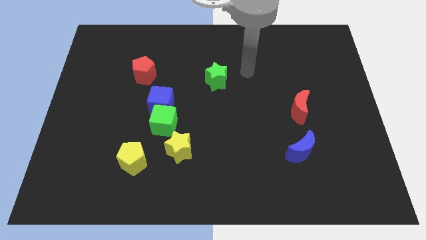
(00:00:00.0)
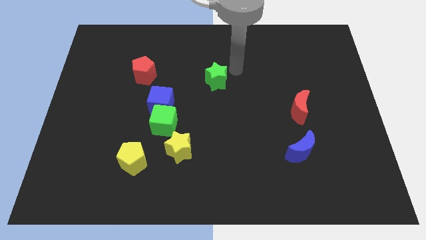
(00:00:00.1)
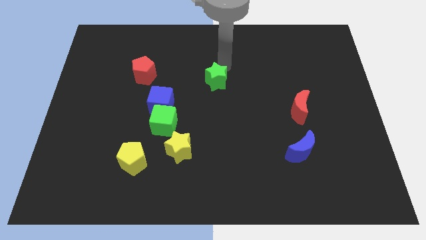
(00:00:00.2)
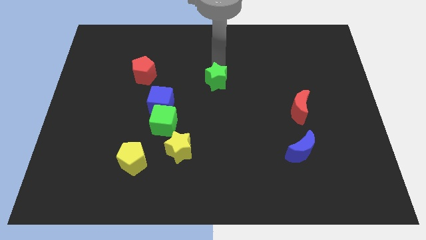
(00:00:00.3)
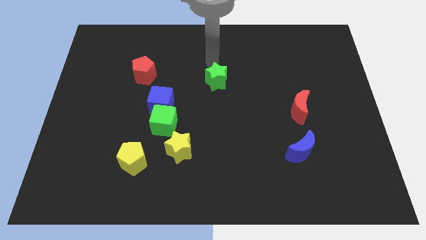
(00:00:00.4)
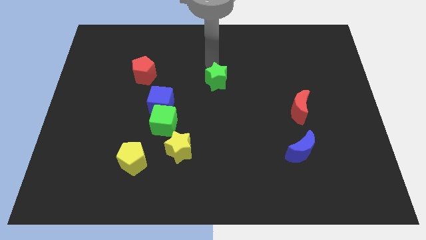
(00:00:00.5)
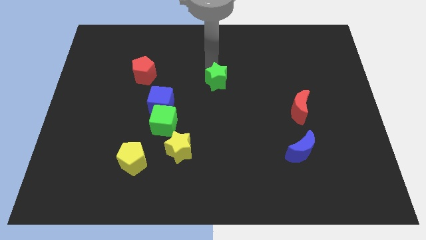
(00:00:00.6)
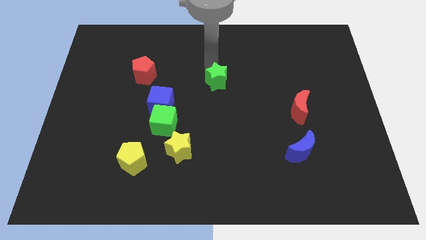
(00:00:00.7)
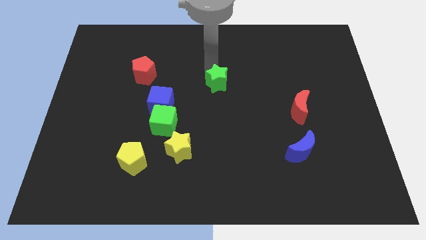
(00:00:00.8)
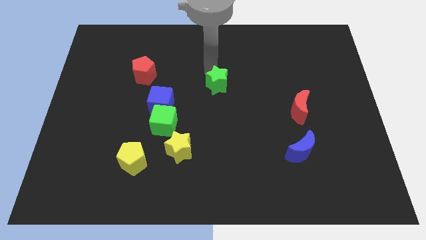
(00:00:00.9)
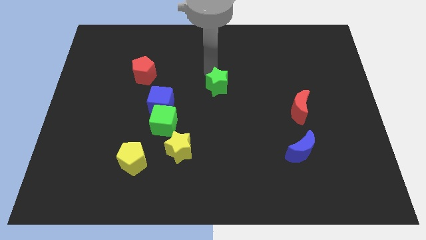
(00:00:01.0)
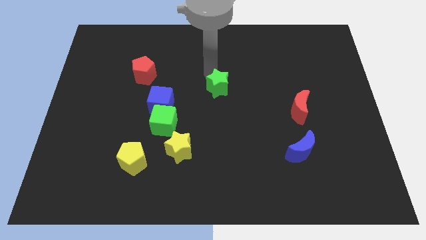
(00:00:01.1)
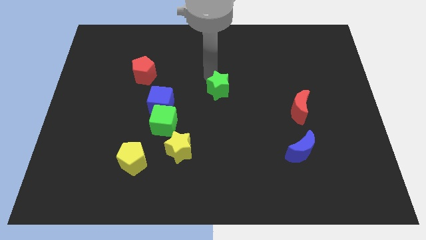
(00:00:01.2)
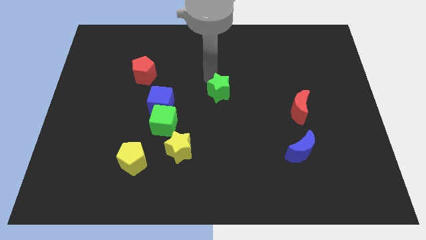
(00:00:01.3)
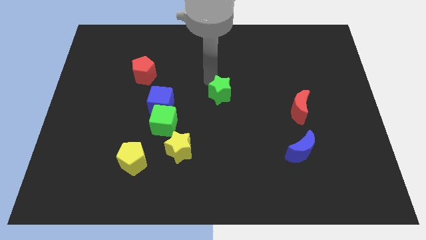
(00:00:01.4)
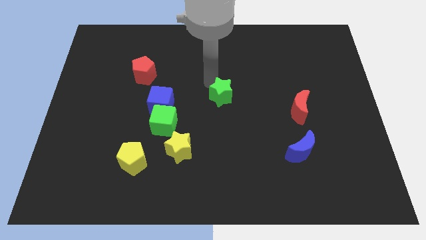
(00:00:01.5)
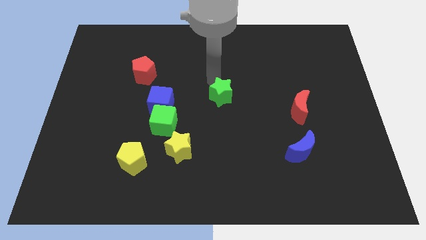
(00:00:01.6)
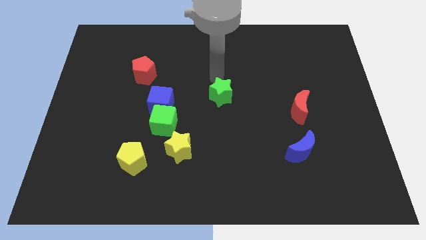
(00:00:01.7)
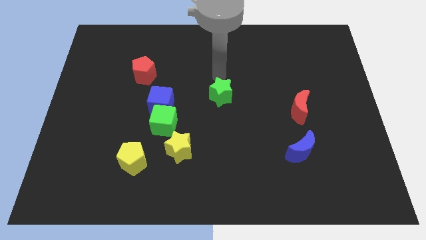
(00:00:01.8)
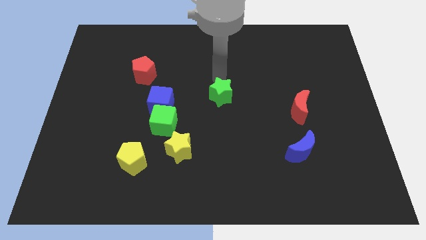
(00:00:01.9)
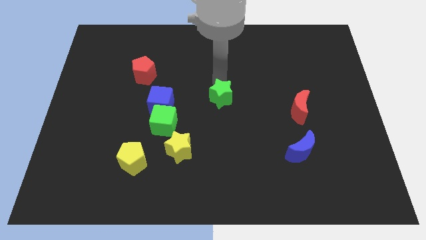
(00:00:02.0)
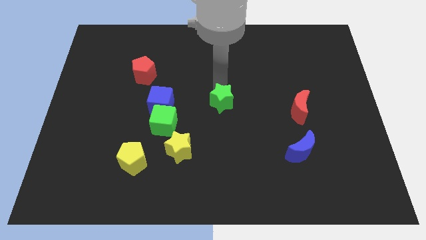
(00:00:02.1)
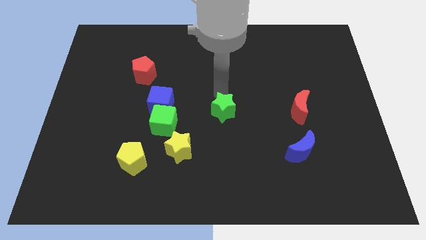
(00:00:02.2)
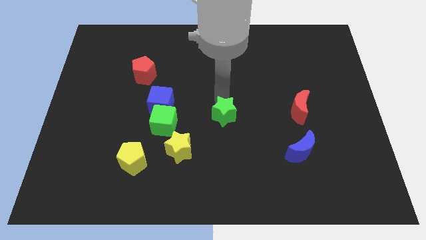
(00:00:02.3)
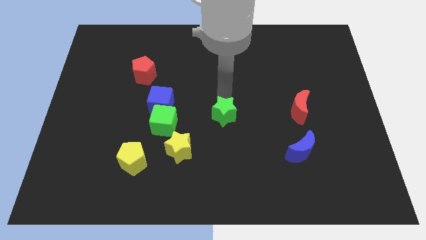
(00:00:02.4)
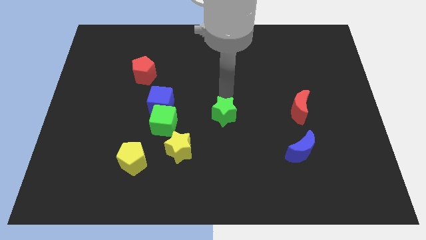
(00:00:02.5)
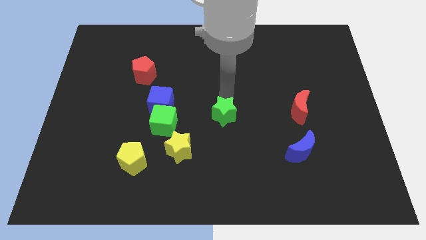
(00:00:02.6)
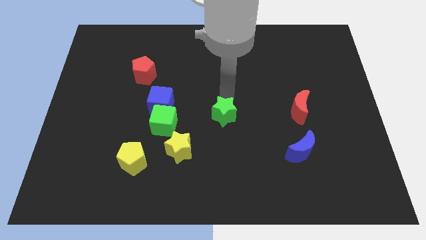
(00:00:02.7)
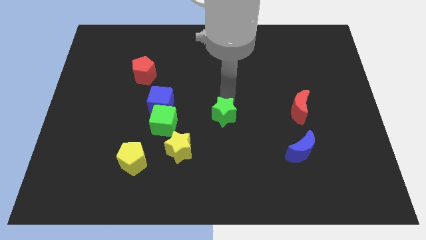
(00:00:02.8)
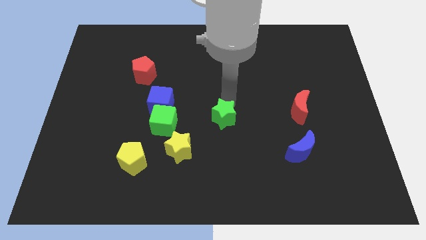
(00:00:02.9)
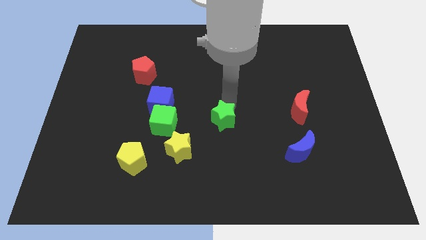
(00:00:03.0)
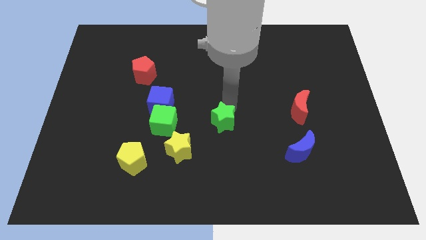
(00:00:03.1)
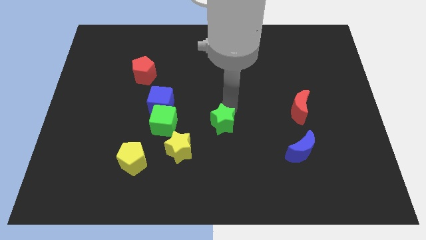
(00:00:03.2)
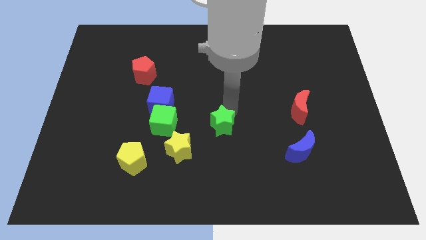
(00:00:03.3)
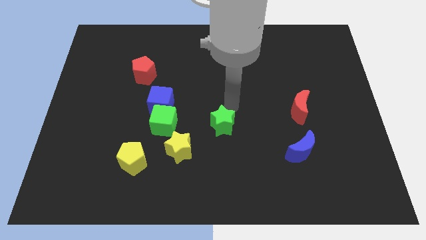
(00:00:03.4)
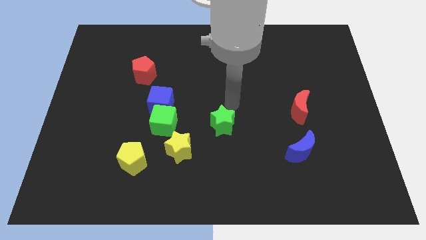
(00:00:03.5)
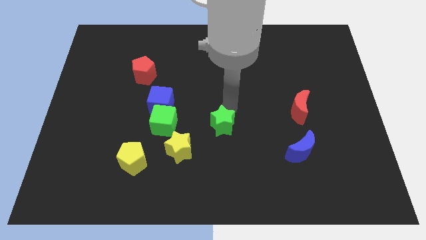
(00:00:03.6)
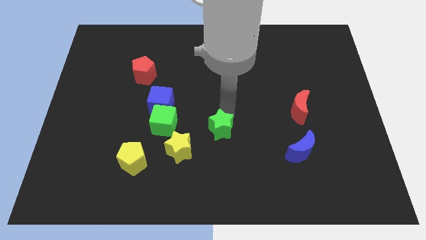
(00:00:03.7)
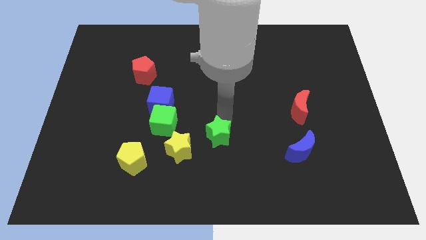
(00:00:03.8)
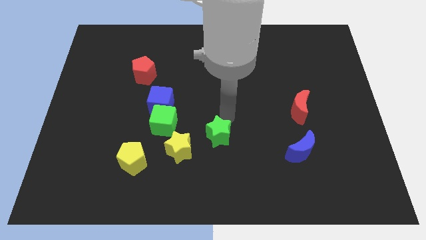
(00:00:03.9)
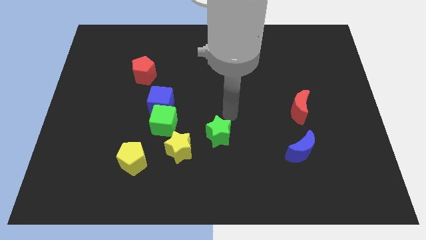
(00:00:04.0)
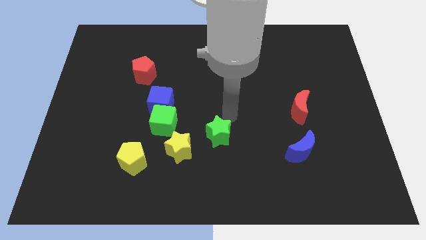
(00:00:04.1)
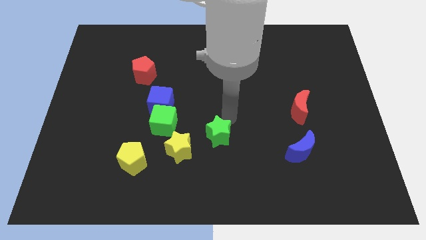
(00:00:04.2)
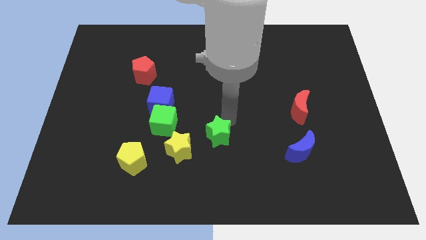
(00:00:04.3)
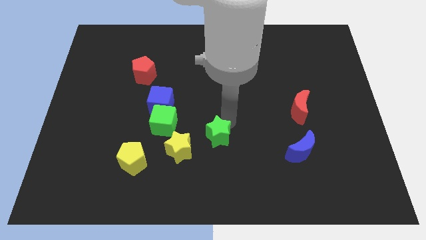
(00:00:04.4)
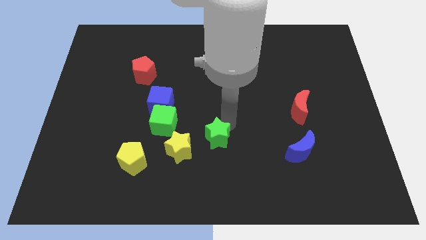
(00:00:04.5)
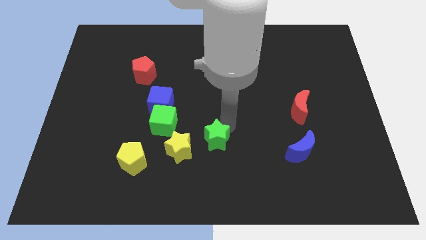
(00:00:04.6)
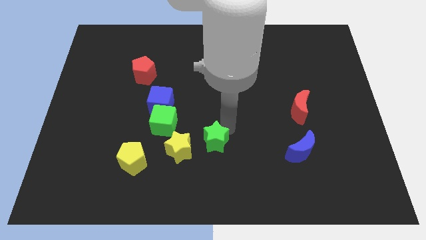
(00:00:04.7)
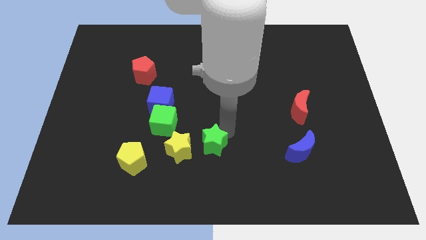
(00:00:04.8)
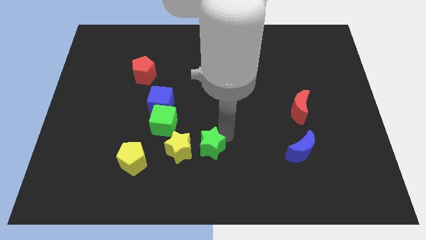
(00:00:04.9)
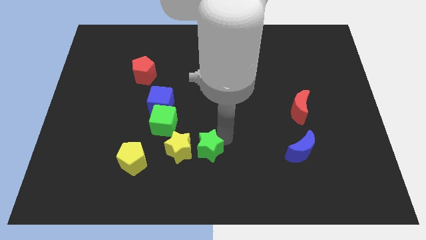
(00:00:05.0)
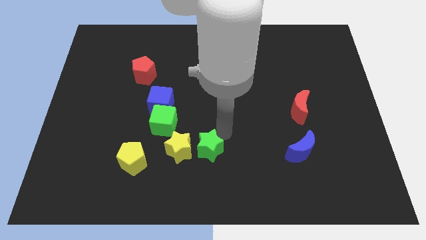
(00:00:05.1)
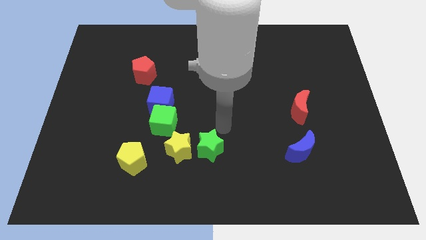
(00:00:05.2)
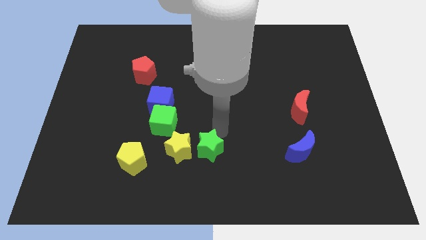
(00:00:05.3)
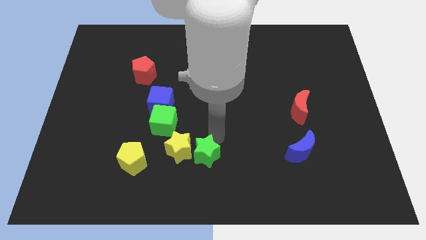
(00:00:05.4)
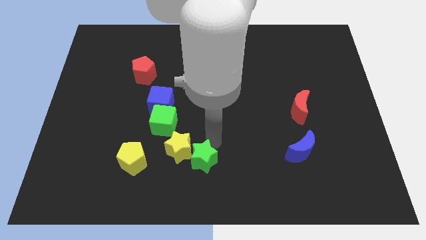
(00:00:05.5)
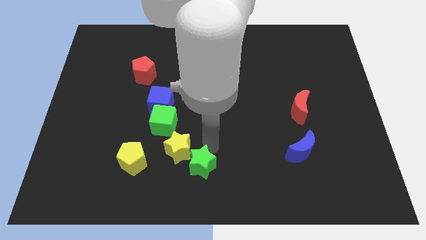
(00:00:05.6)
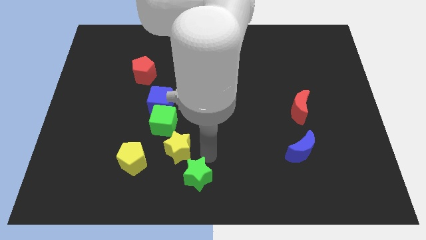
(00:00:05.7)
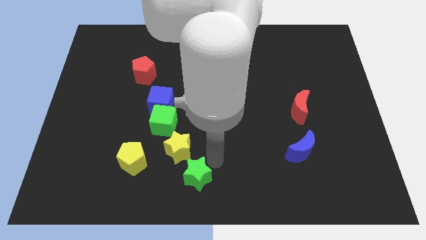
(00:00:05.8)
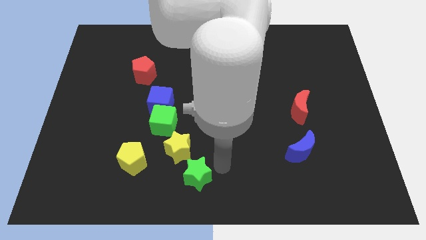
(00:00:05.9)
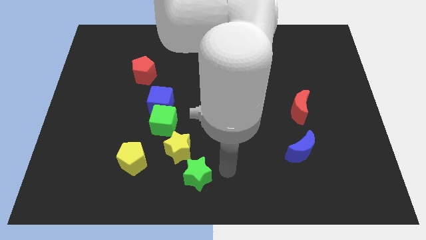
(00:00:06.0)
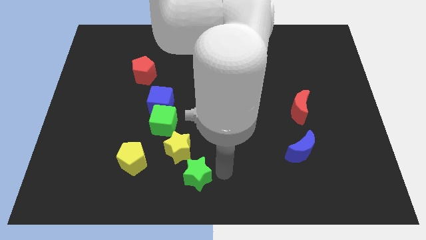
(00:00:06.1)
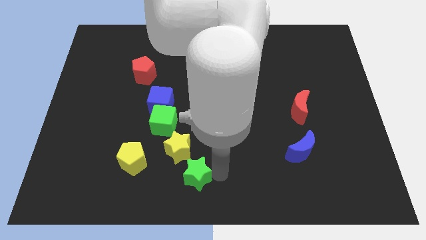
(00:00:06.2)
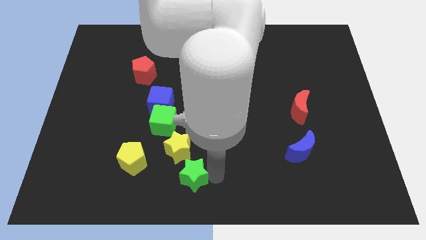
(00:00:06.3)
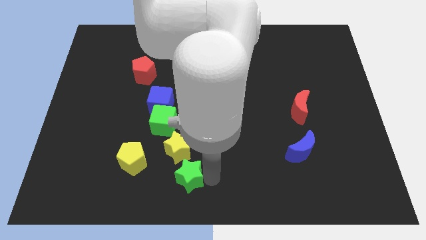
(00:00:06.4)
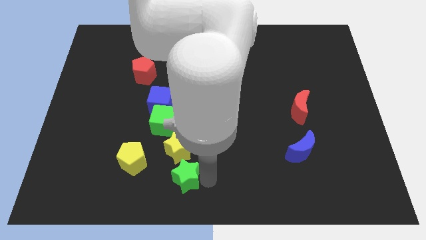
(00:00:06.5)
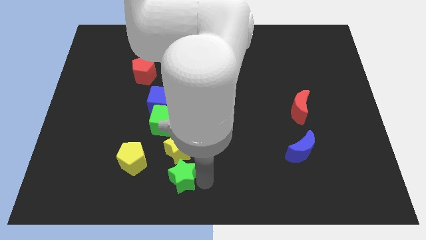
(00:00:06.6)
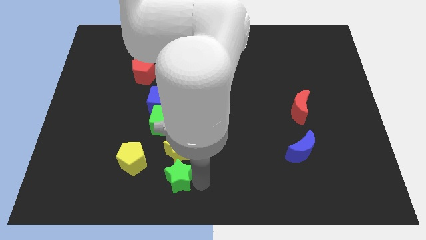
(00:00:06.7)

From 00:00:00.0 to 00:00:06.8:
put the green star diagonally down and to the right of the yellow pentagon
